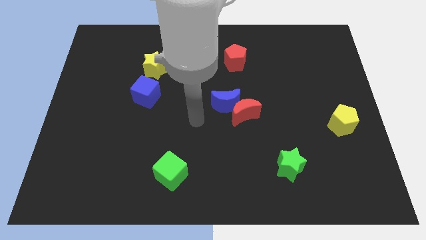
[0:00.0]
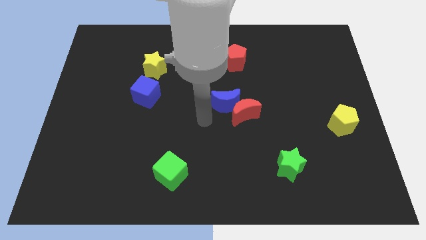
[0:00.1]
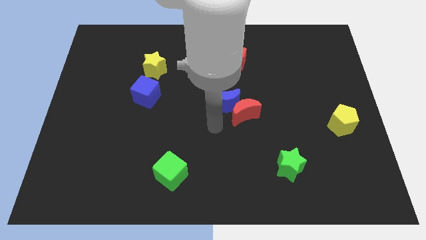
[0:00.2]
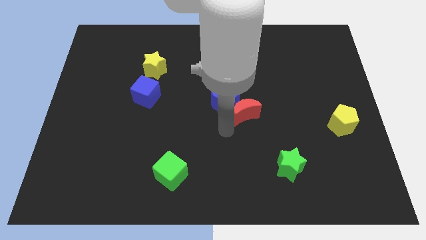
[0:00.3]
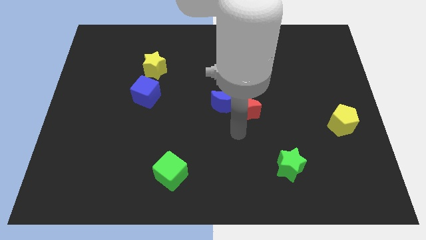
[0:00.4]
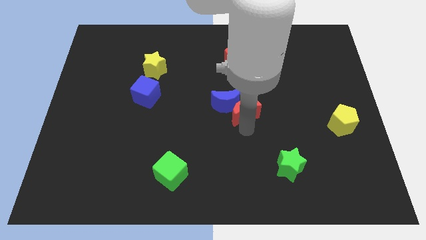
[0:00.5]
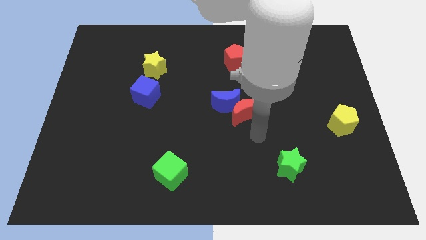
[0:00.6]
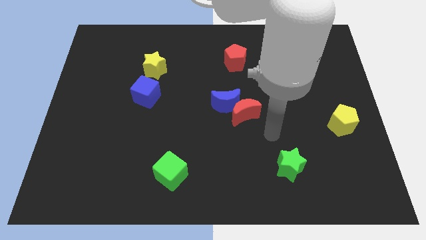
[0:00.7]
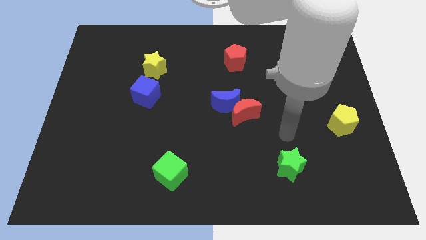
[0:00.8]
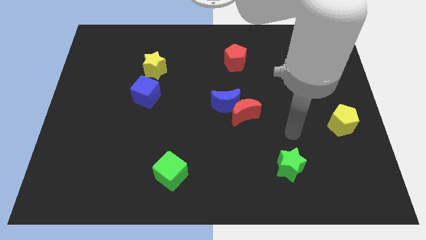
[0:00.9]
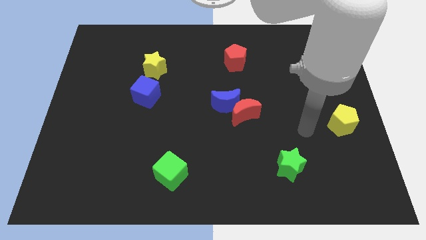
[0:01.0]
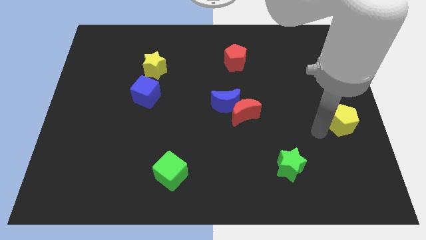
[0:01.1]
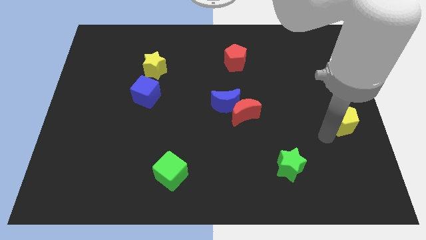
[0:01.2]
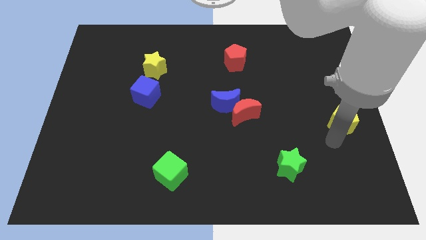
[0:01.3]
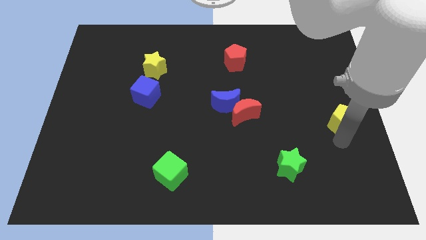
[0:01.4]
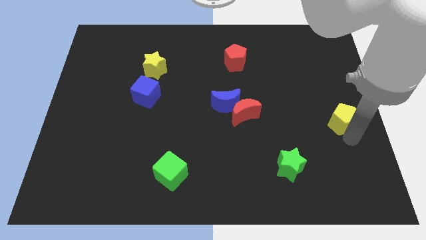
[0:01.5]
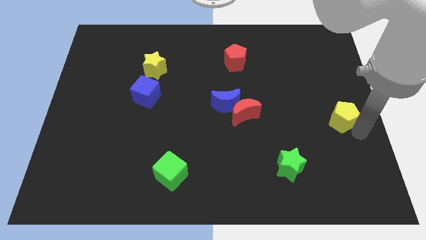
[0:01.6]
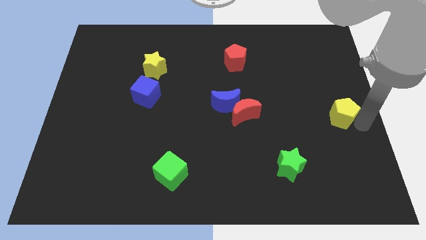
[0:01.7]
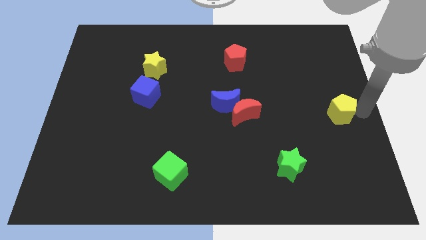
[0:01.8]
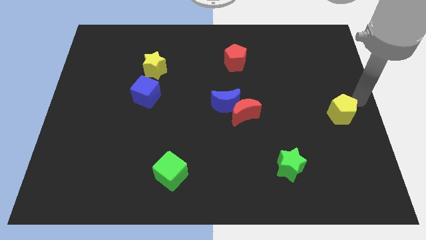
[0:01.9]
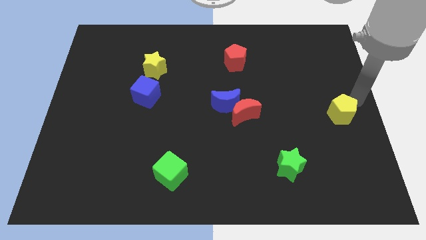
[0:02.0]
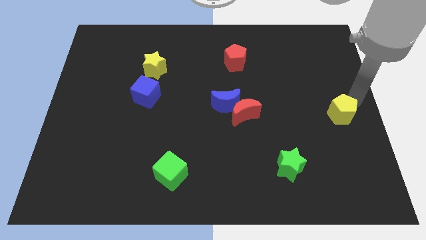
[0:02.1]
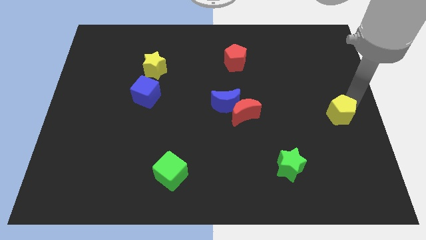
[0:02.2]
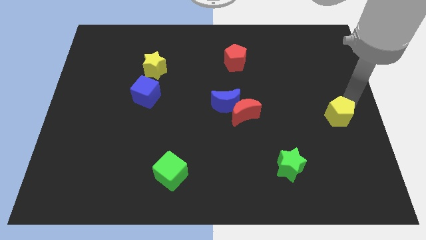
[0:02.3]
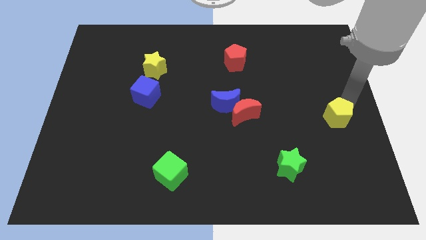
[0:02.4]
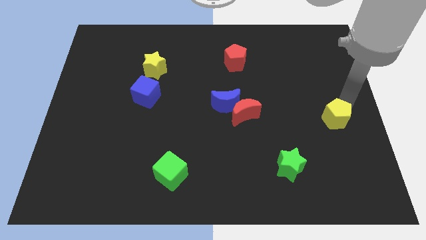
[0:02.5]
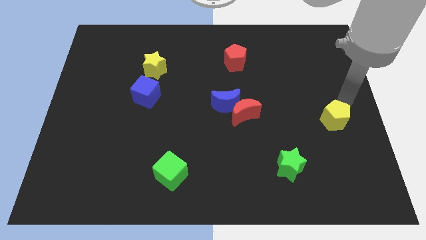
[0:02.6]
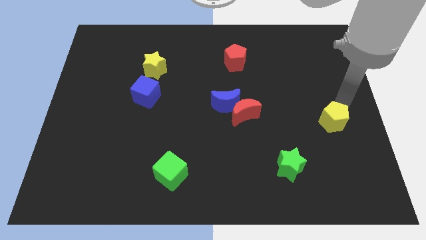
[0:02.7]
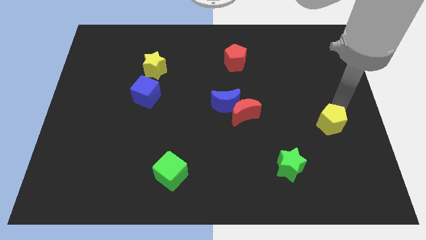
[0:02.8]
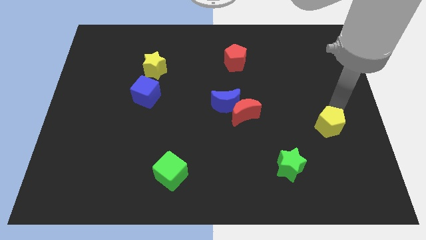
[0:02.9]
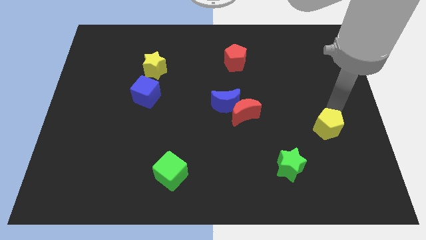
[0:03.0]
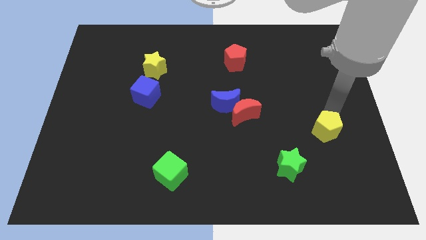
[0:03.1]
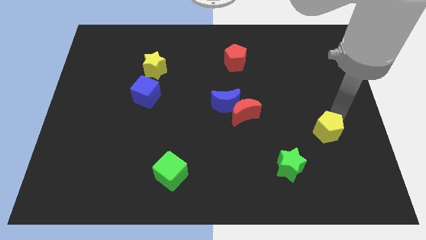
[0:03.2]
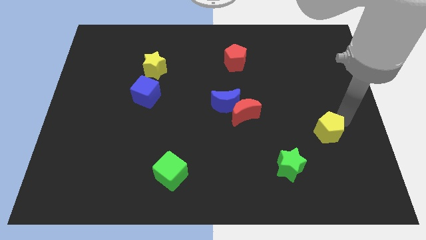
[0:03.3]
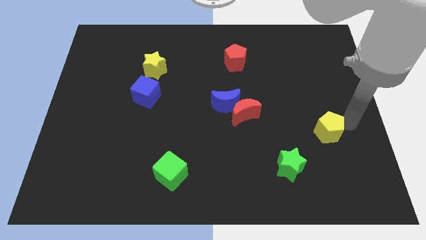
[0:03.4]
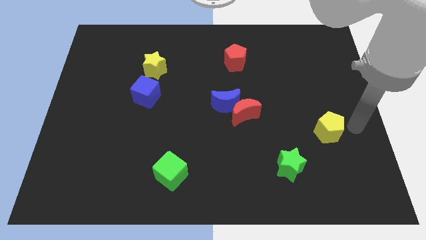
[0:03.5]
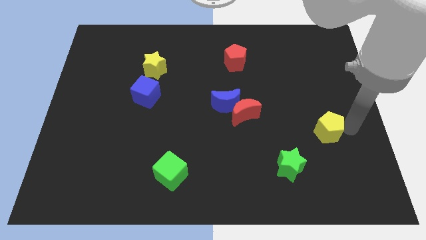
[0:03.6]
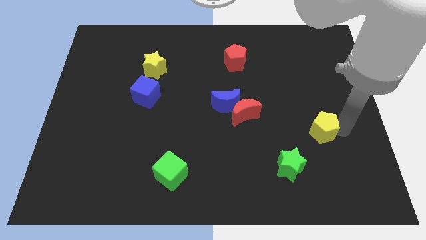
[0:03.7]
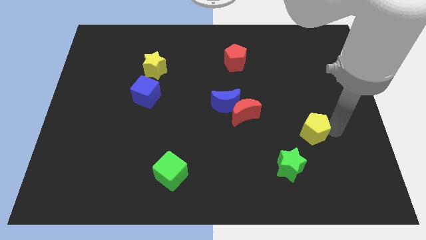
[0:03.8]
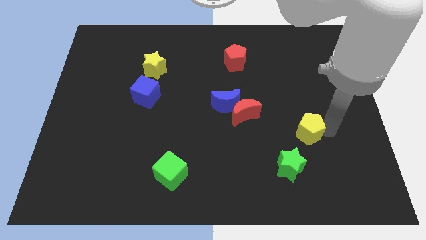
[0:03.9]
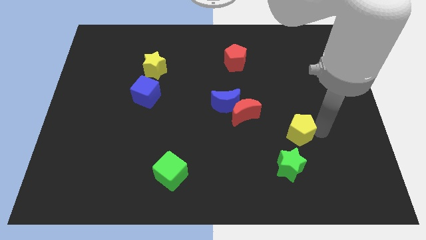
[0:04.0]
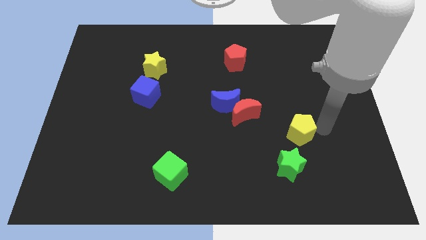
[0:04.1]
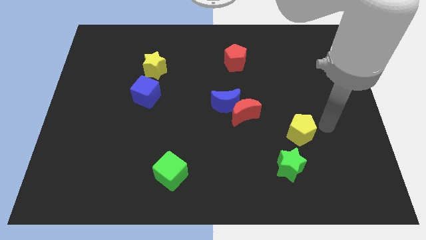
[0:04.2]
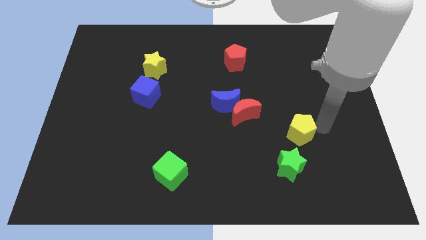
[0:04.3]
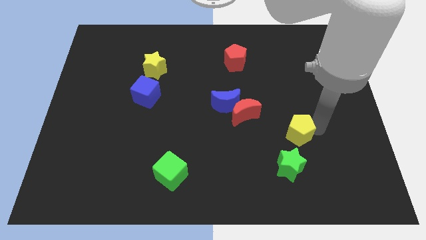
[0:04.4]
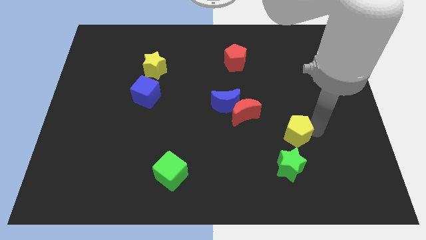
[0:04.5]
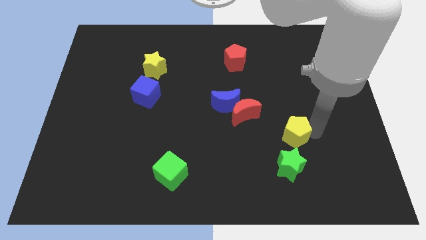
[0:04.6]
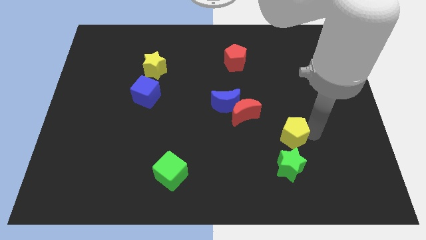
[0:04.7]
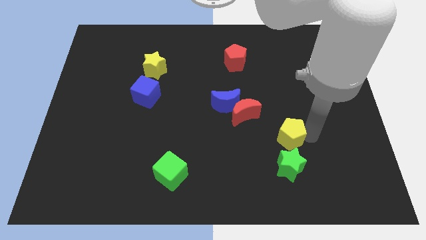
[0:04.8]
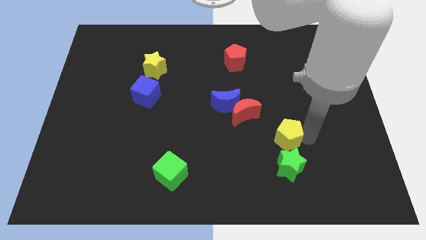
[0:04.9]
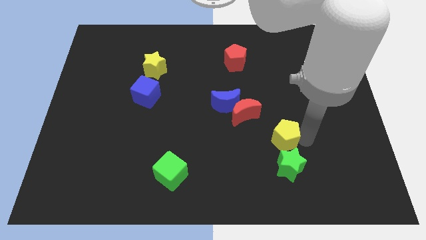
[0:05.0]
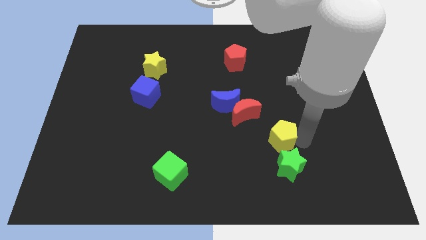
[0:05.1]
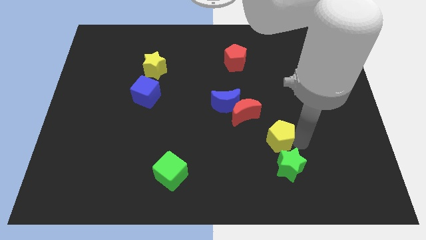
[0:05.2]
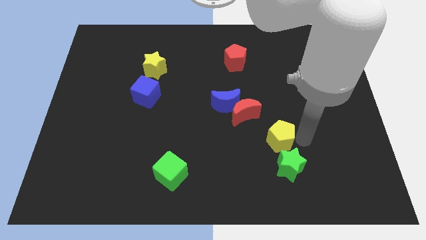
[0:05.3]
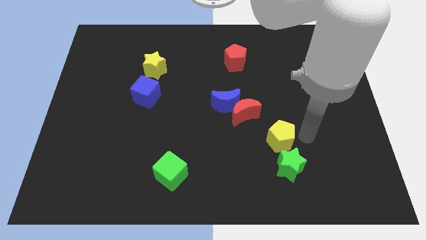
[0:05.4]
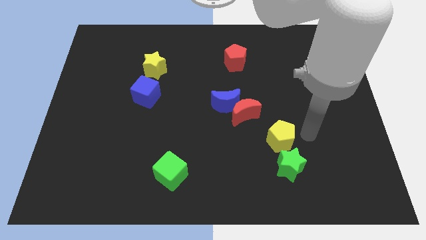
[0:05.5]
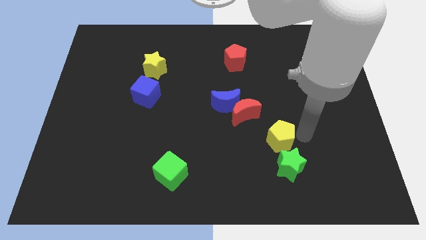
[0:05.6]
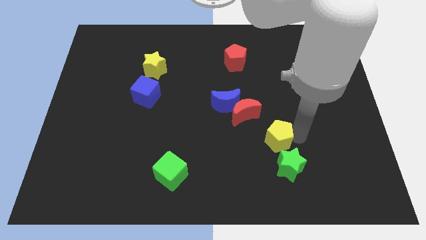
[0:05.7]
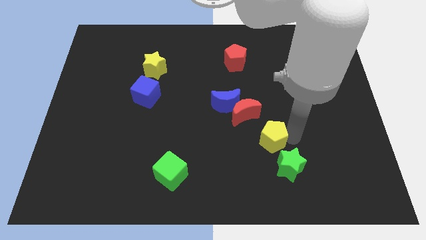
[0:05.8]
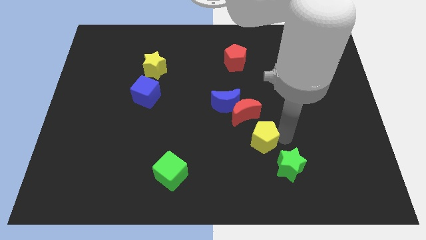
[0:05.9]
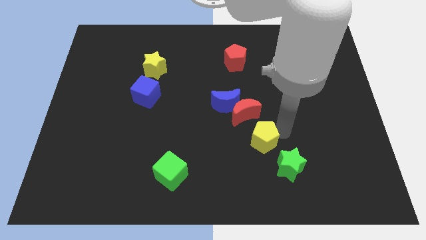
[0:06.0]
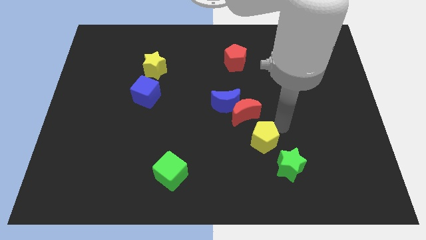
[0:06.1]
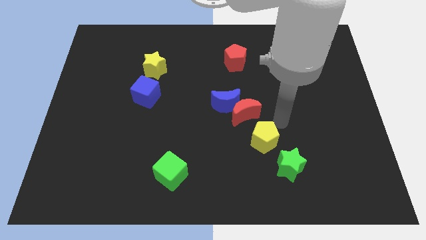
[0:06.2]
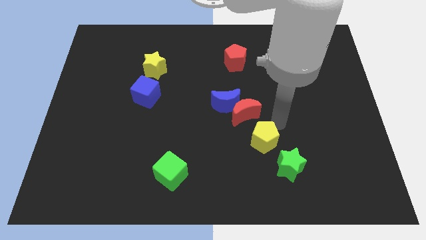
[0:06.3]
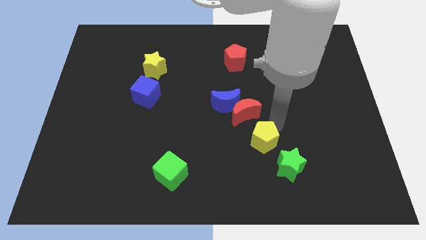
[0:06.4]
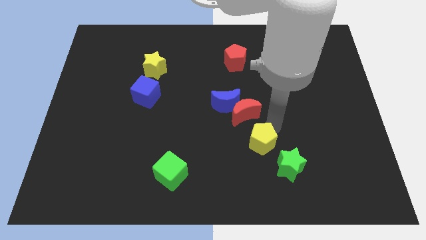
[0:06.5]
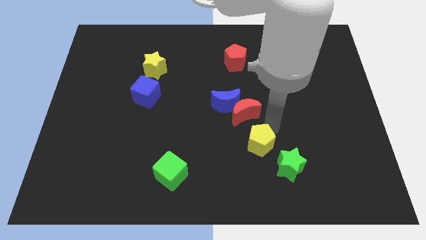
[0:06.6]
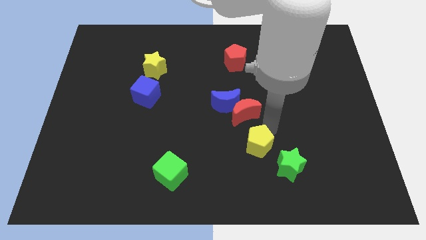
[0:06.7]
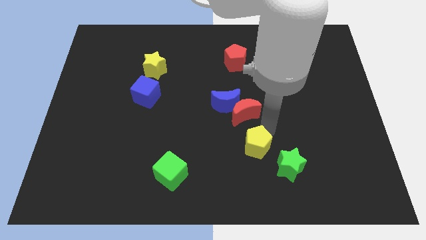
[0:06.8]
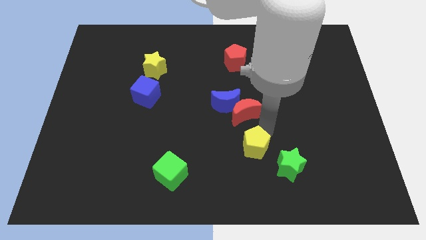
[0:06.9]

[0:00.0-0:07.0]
slide the yellow pentagon left of the green star
